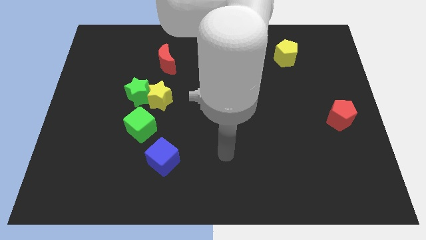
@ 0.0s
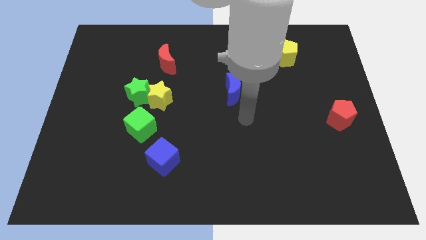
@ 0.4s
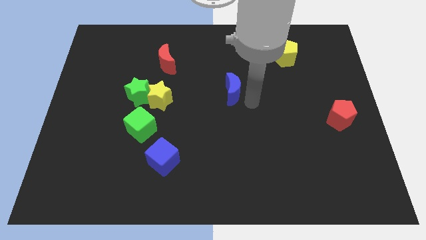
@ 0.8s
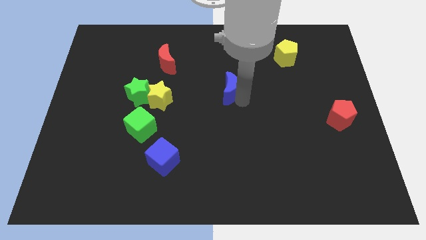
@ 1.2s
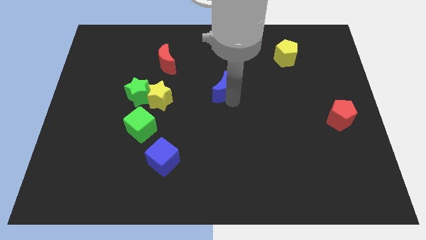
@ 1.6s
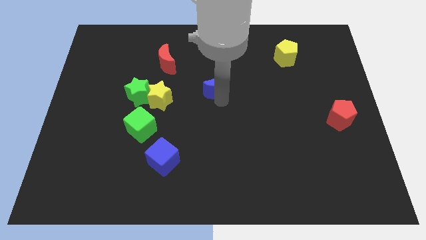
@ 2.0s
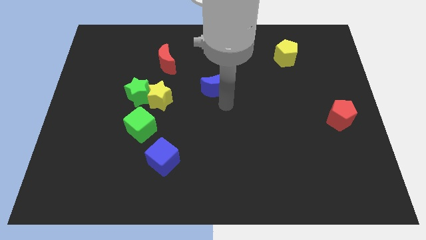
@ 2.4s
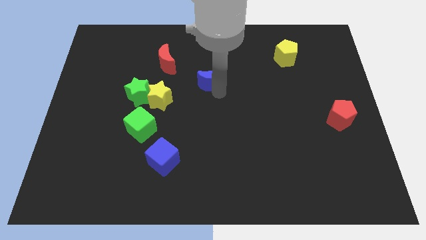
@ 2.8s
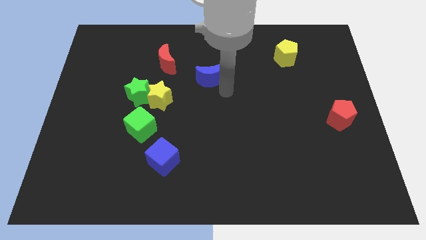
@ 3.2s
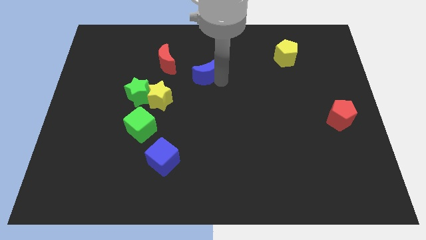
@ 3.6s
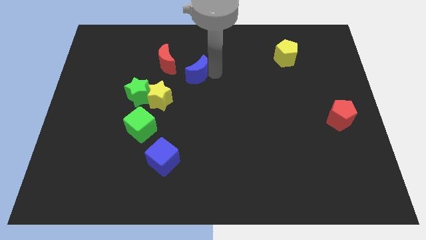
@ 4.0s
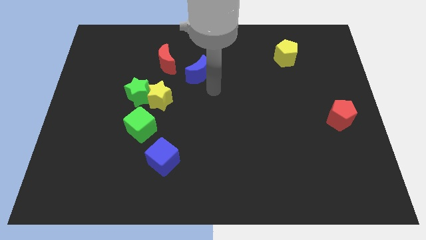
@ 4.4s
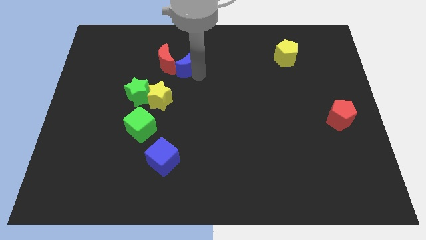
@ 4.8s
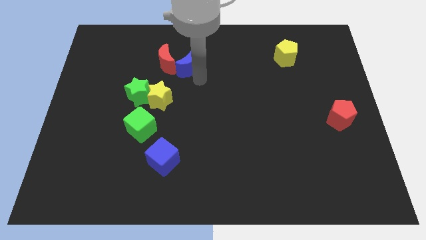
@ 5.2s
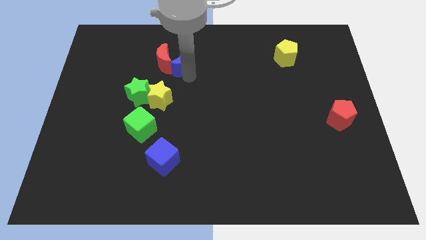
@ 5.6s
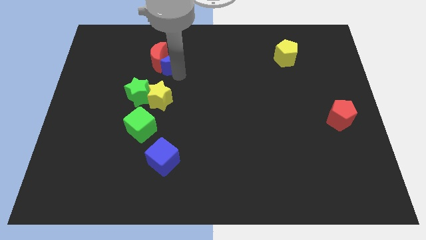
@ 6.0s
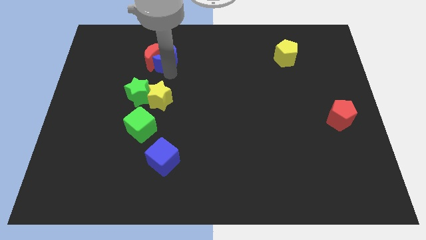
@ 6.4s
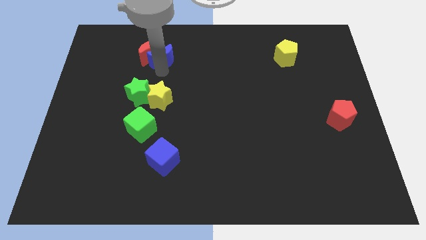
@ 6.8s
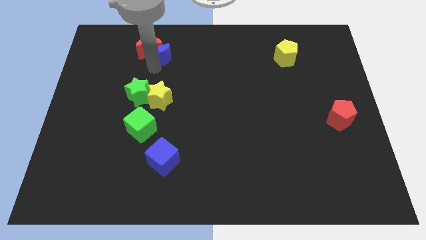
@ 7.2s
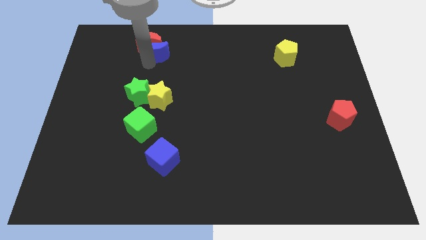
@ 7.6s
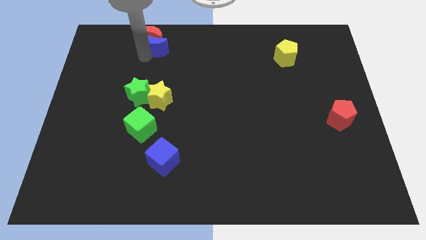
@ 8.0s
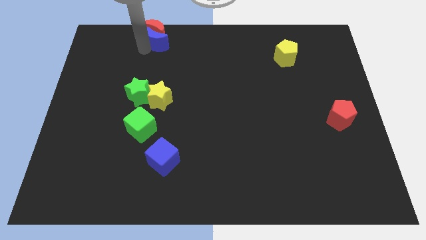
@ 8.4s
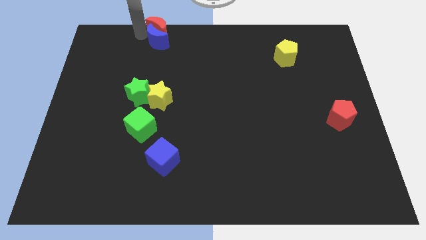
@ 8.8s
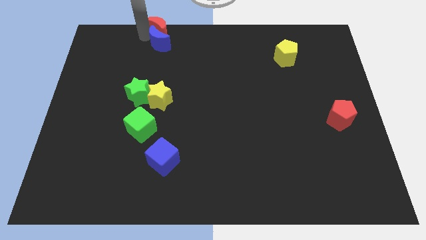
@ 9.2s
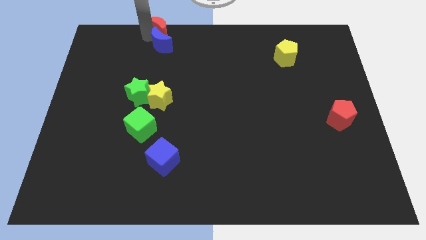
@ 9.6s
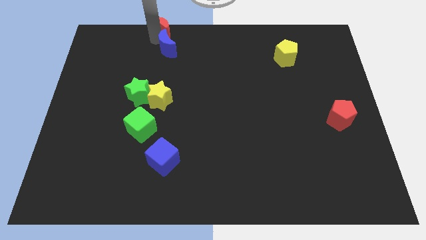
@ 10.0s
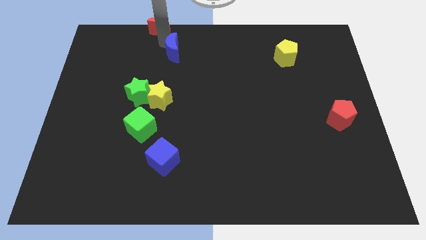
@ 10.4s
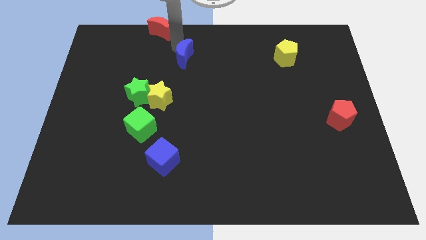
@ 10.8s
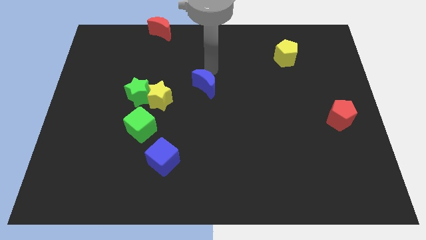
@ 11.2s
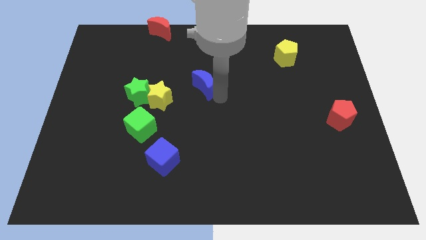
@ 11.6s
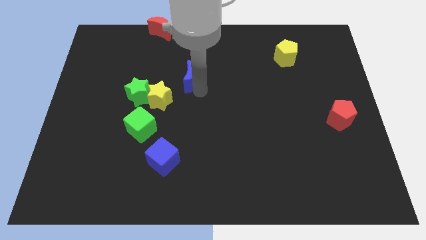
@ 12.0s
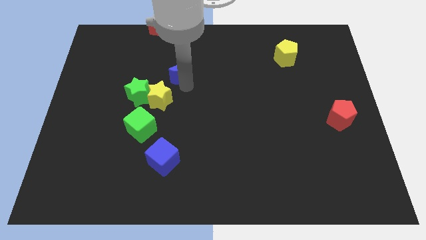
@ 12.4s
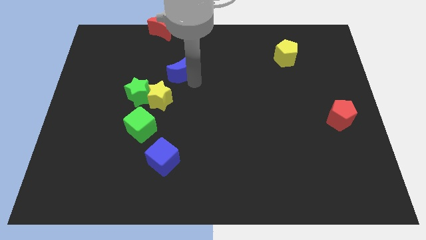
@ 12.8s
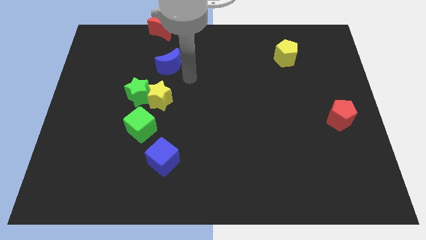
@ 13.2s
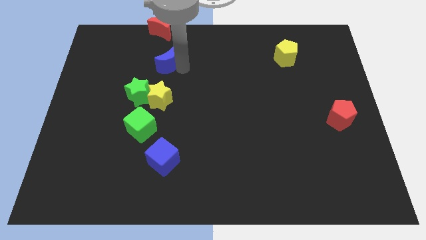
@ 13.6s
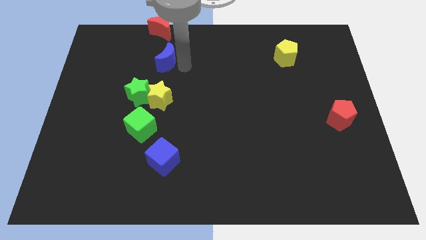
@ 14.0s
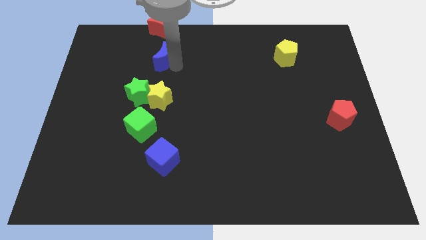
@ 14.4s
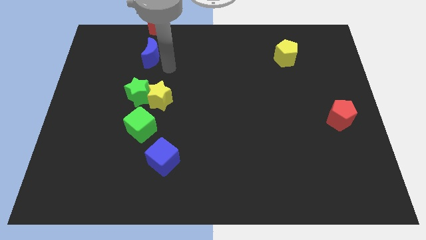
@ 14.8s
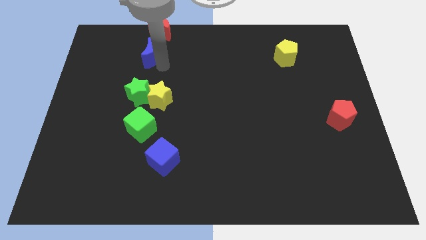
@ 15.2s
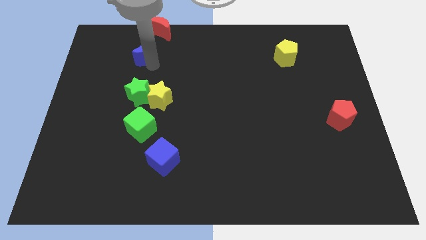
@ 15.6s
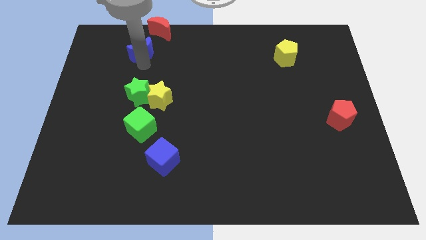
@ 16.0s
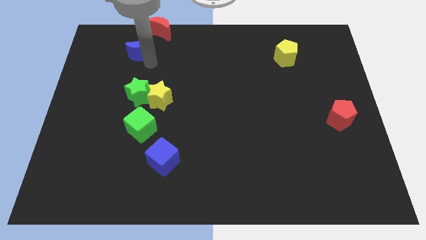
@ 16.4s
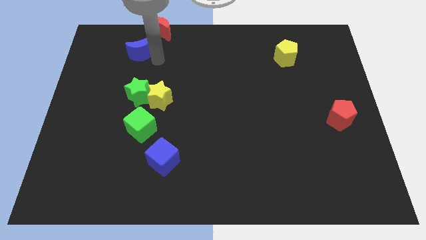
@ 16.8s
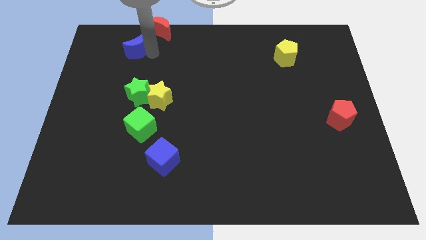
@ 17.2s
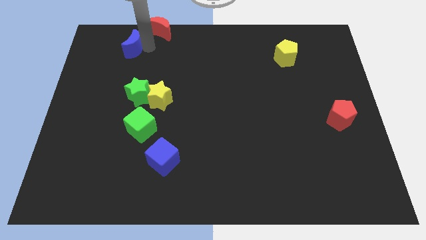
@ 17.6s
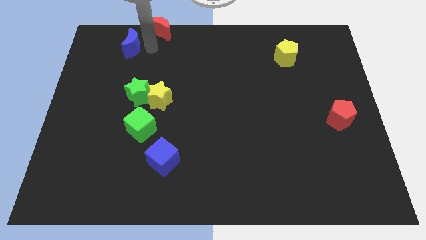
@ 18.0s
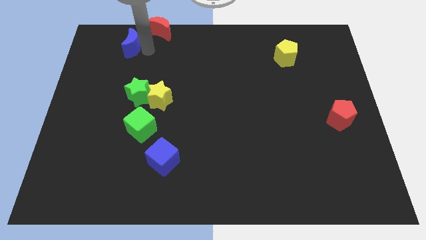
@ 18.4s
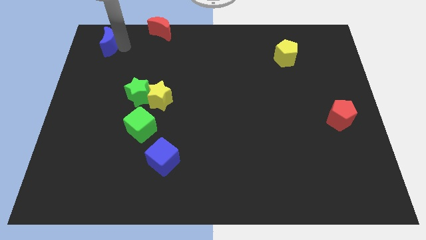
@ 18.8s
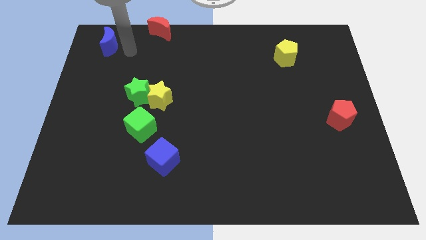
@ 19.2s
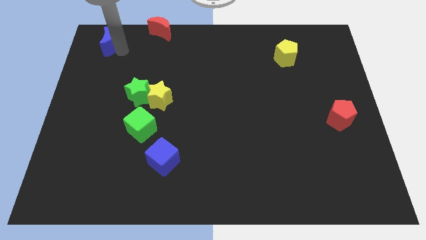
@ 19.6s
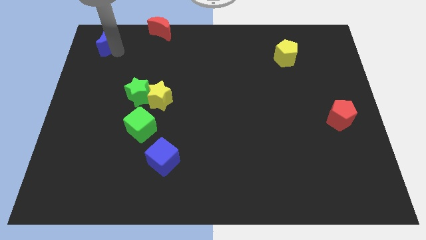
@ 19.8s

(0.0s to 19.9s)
slide the blue moon to the upper left corner

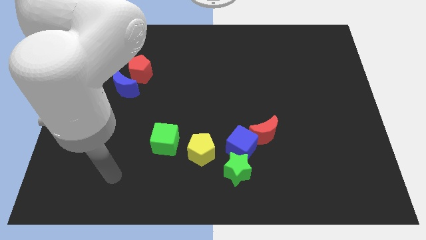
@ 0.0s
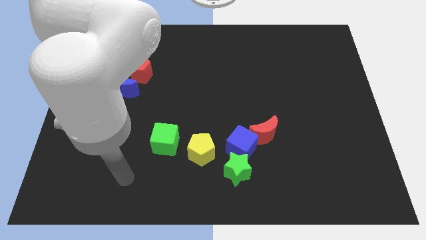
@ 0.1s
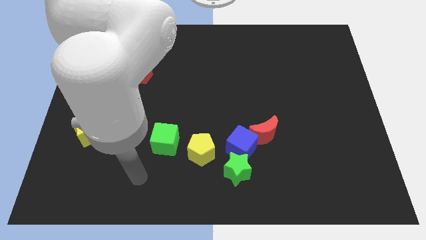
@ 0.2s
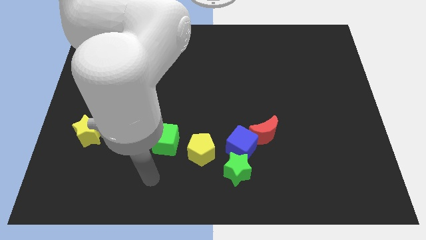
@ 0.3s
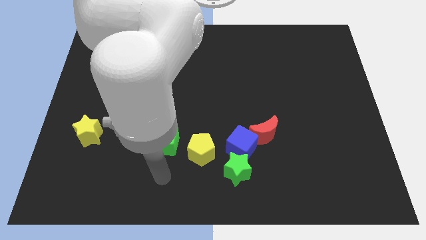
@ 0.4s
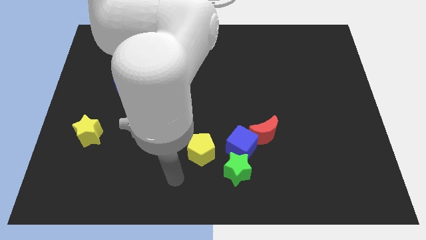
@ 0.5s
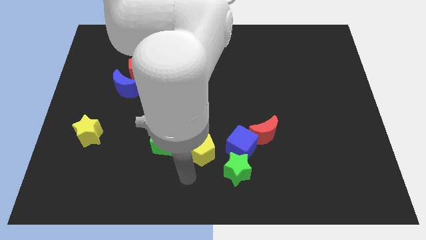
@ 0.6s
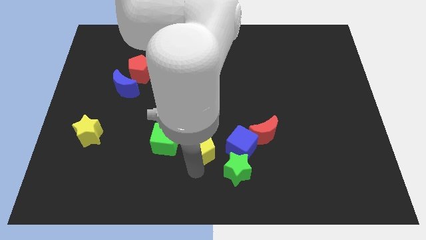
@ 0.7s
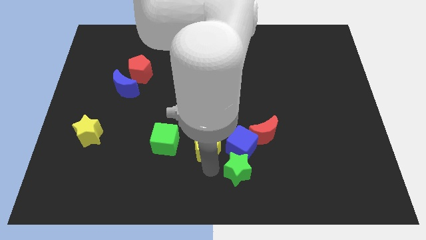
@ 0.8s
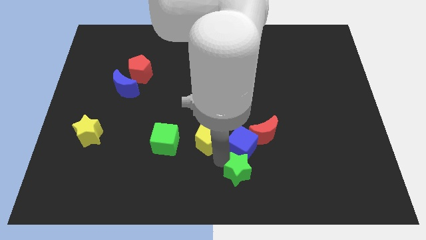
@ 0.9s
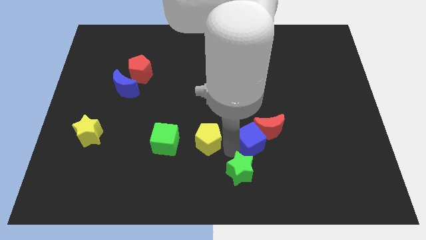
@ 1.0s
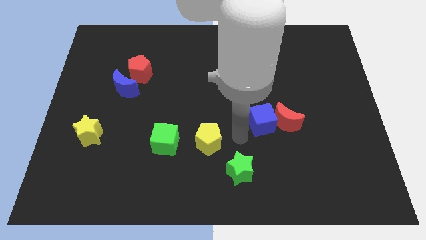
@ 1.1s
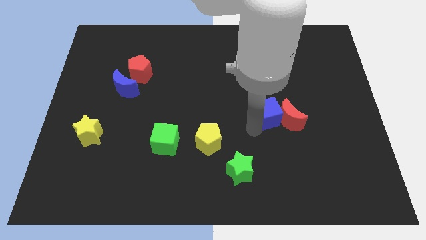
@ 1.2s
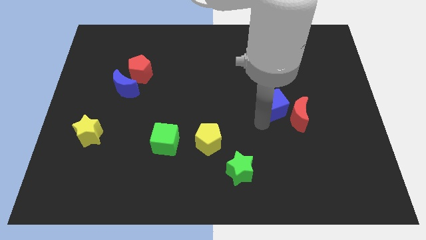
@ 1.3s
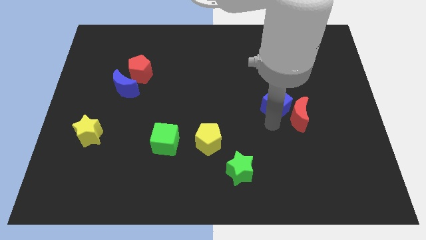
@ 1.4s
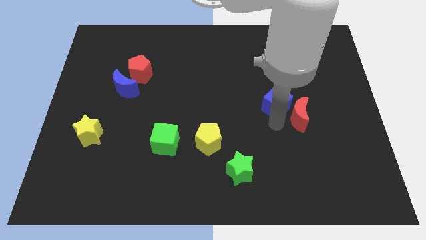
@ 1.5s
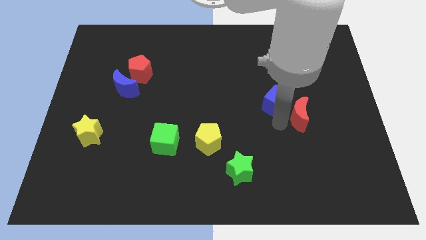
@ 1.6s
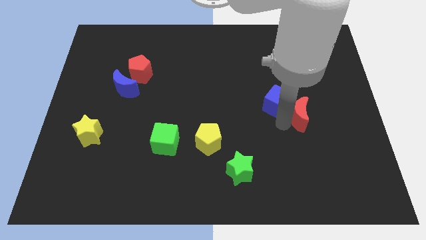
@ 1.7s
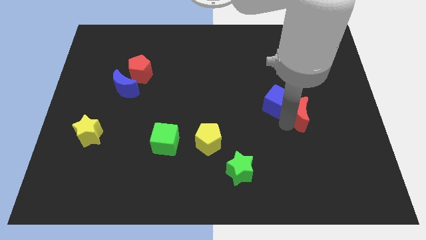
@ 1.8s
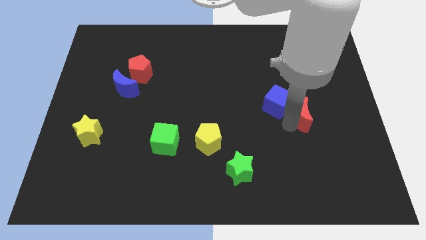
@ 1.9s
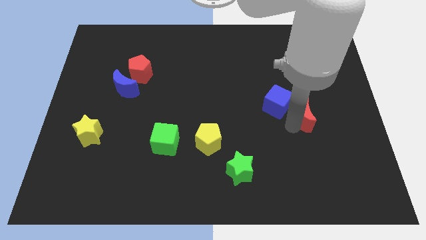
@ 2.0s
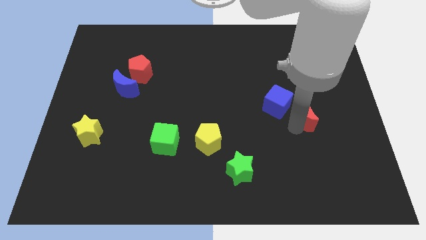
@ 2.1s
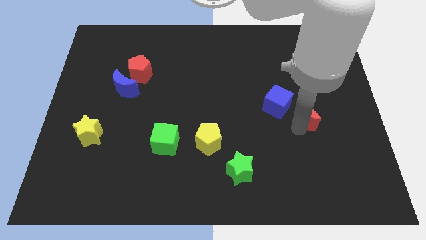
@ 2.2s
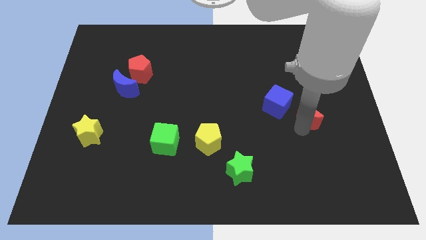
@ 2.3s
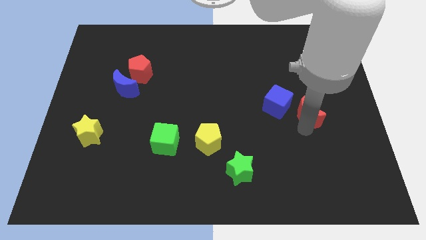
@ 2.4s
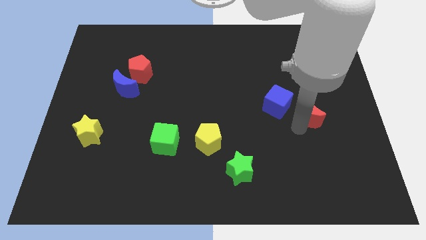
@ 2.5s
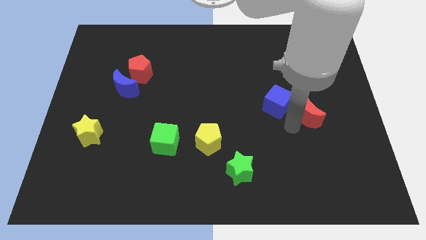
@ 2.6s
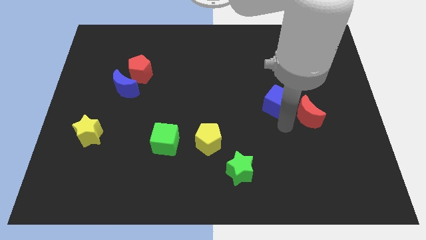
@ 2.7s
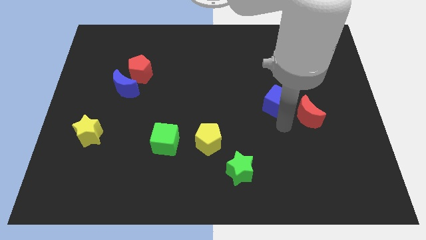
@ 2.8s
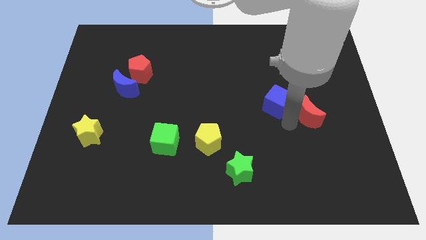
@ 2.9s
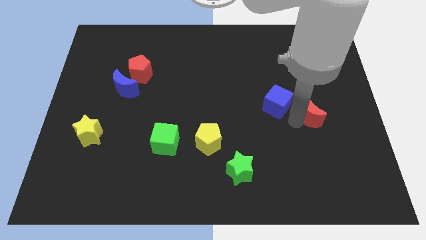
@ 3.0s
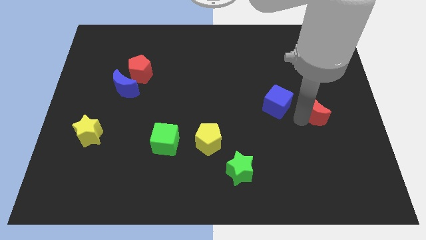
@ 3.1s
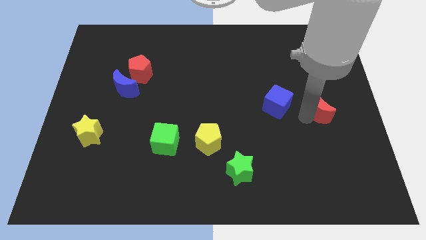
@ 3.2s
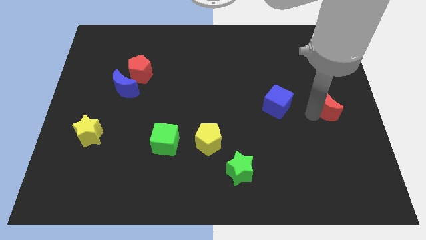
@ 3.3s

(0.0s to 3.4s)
push the red moon to the right side
